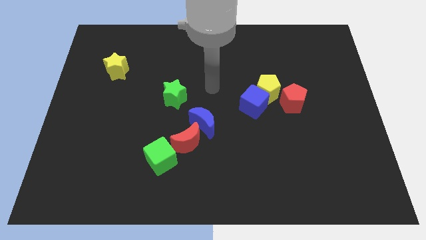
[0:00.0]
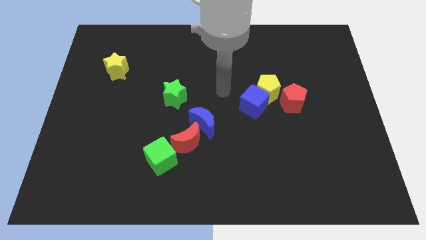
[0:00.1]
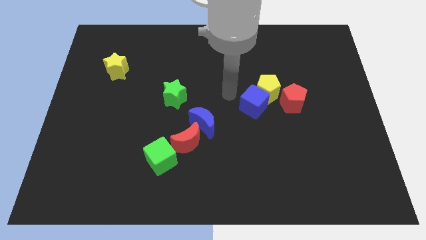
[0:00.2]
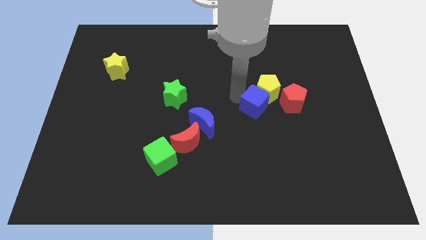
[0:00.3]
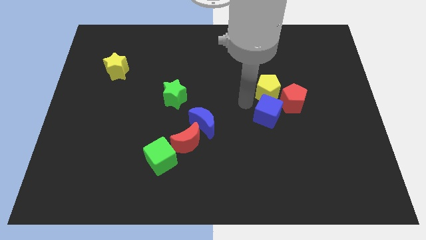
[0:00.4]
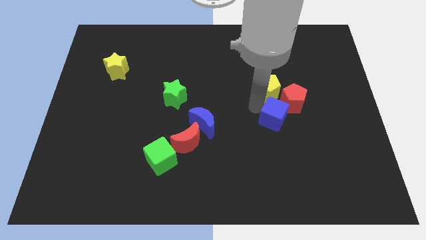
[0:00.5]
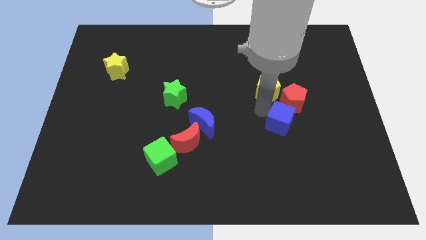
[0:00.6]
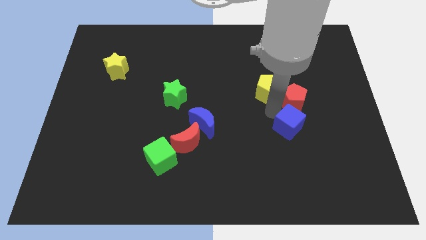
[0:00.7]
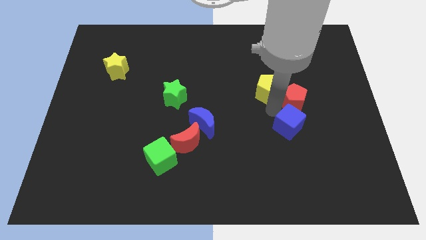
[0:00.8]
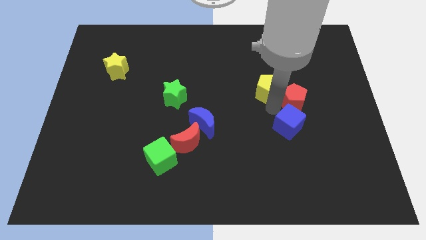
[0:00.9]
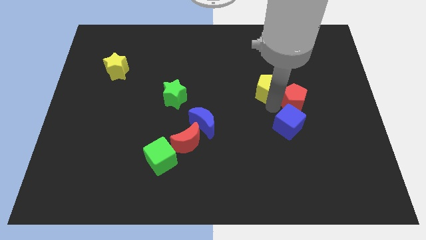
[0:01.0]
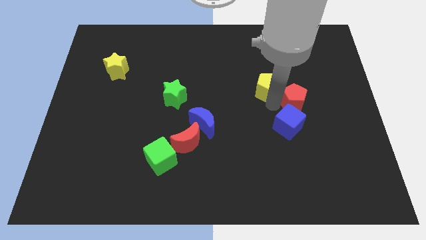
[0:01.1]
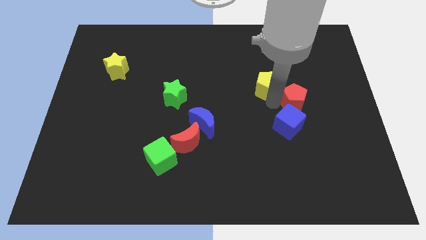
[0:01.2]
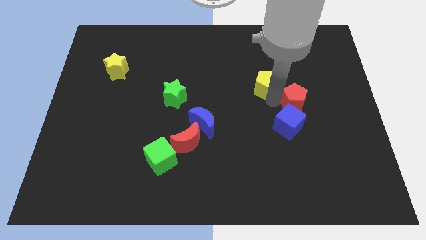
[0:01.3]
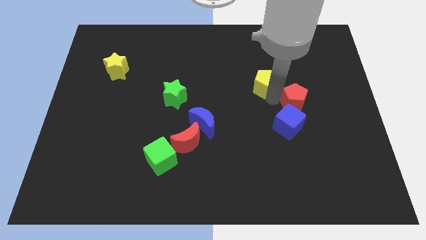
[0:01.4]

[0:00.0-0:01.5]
pull the yellow pentagon apart from the blue cube and red pentagon

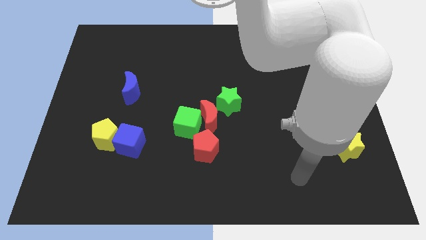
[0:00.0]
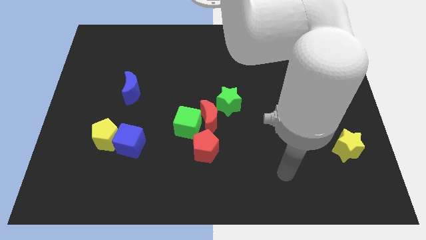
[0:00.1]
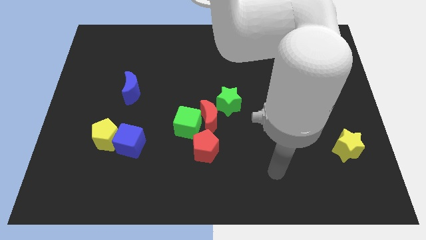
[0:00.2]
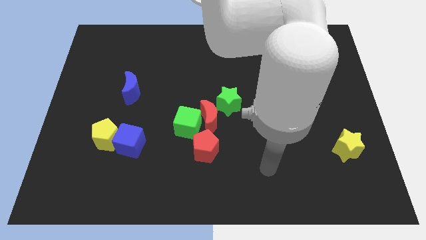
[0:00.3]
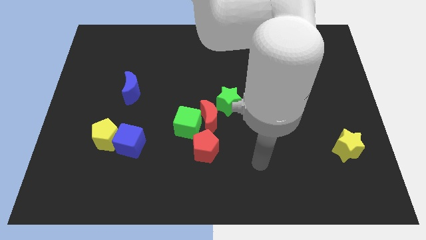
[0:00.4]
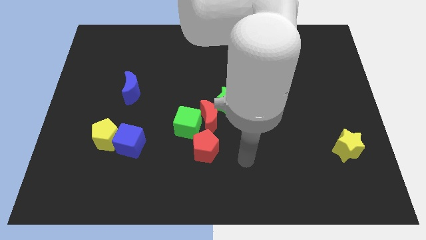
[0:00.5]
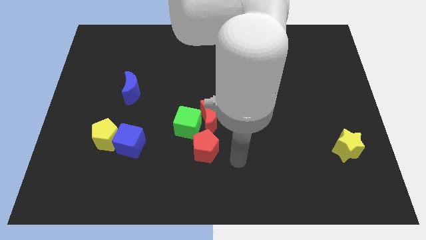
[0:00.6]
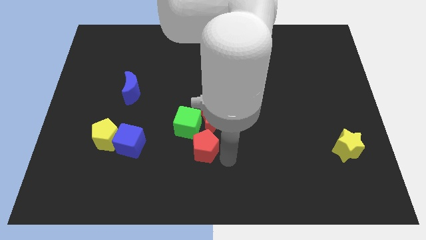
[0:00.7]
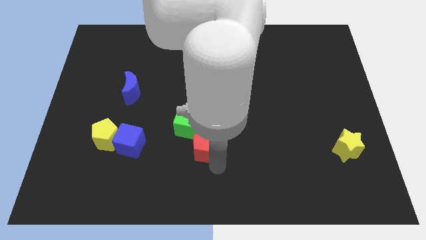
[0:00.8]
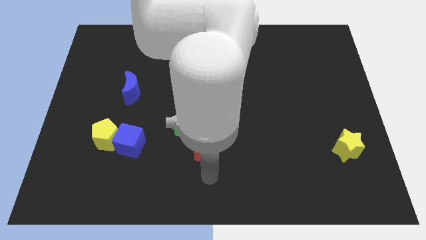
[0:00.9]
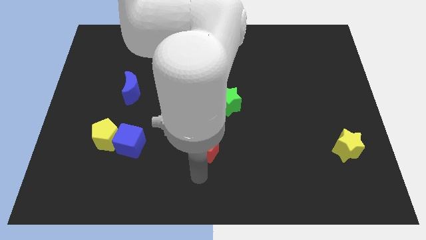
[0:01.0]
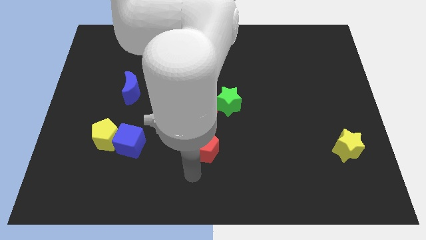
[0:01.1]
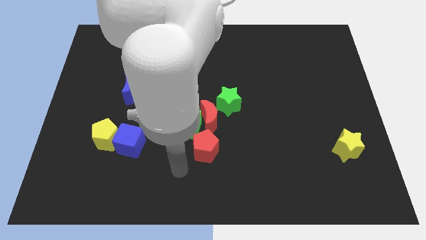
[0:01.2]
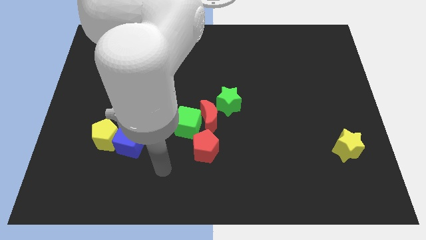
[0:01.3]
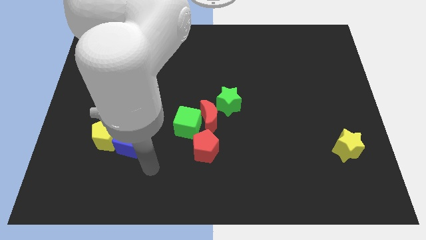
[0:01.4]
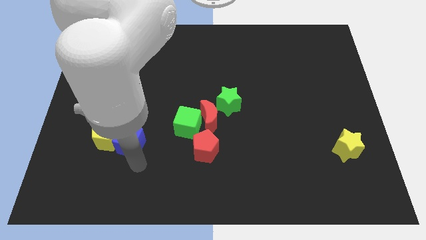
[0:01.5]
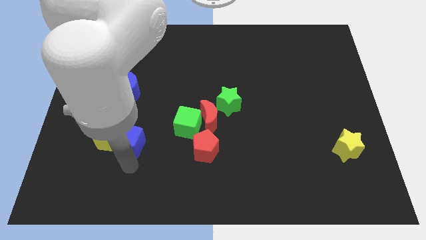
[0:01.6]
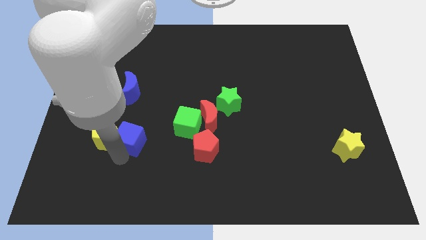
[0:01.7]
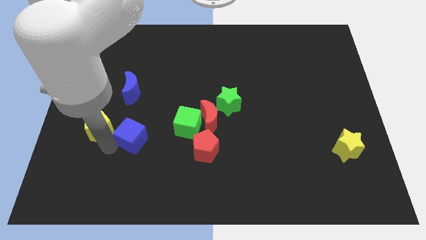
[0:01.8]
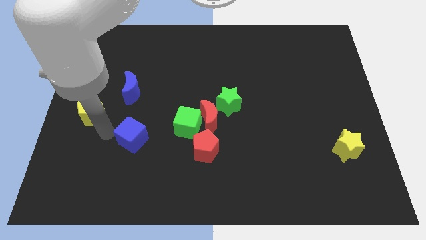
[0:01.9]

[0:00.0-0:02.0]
separate the blue cube from the yellow pentagon

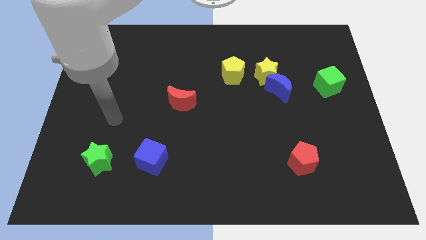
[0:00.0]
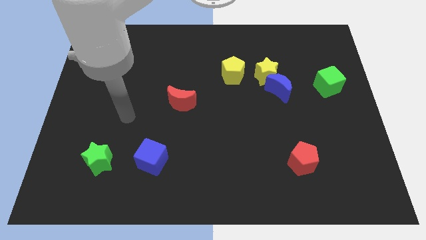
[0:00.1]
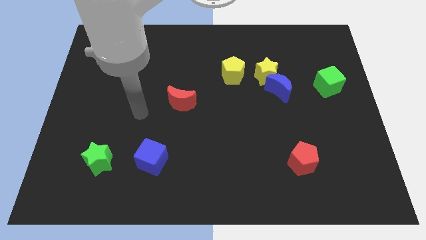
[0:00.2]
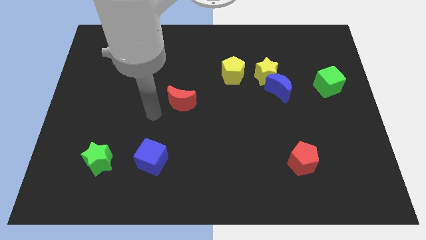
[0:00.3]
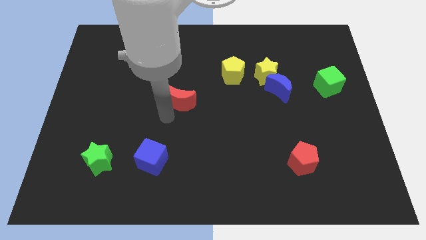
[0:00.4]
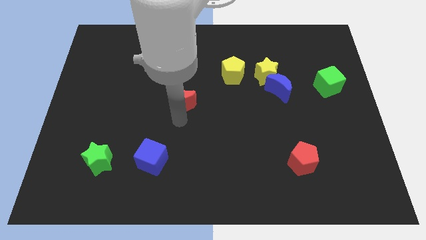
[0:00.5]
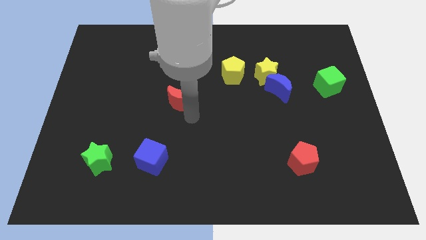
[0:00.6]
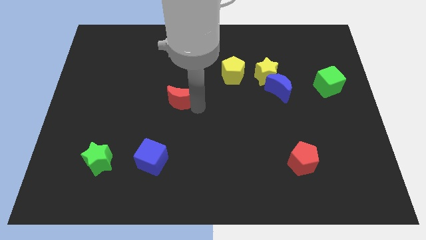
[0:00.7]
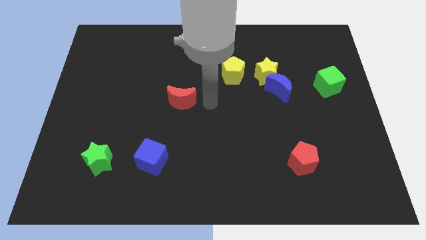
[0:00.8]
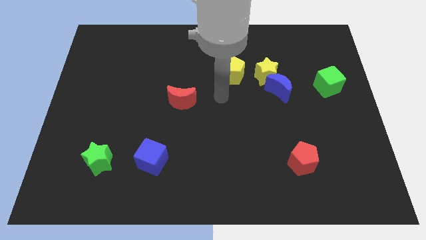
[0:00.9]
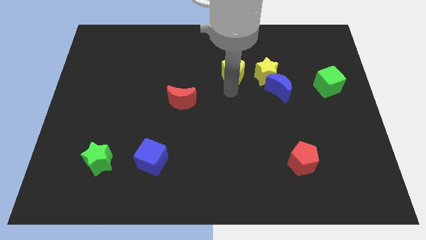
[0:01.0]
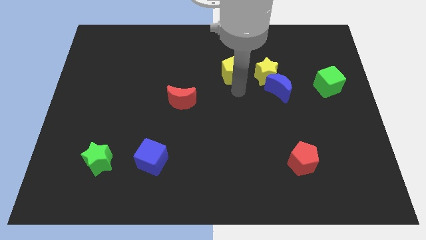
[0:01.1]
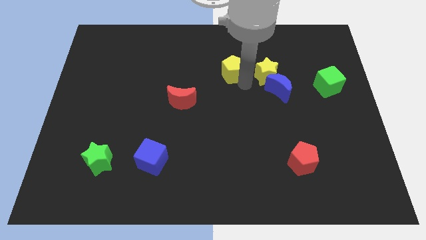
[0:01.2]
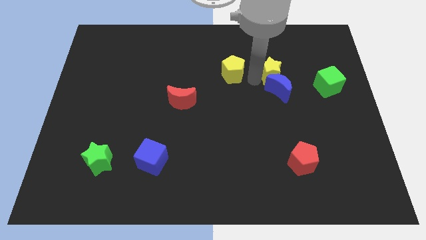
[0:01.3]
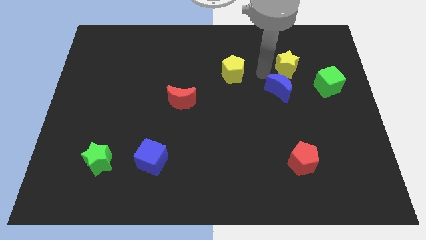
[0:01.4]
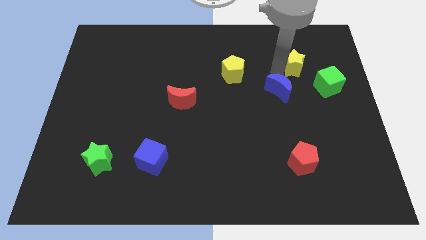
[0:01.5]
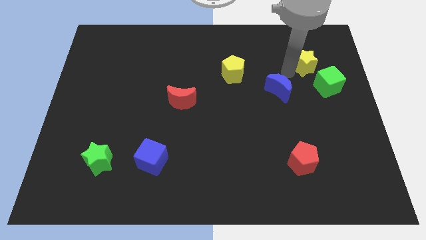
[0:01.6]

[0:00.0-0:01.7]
move the blue moon away from the yellow star

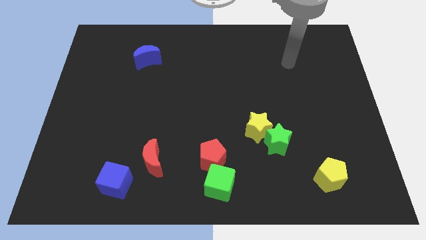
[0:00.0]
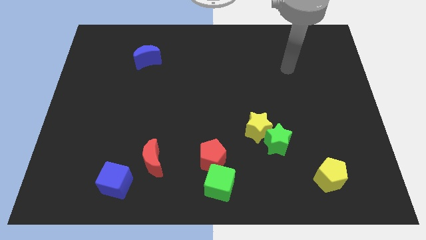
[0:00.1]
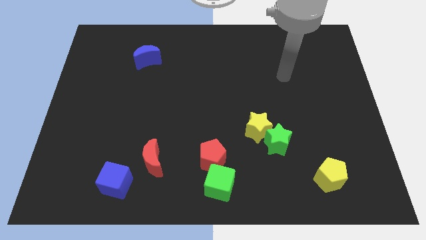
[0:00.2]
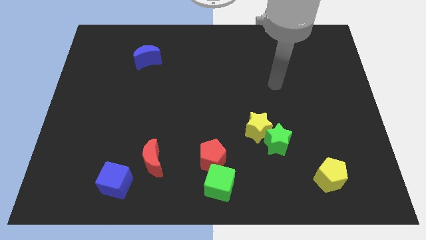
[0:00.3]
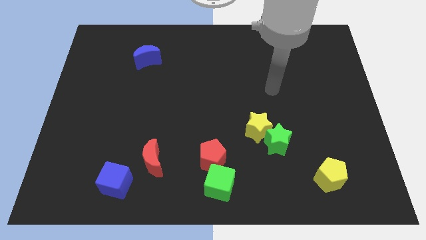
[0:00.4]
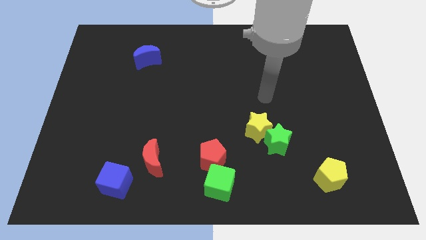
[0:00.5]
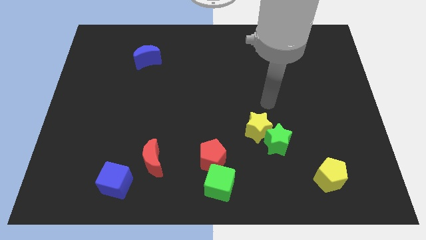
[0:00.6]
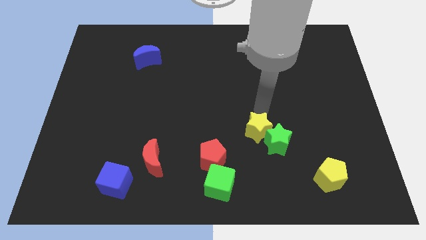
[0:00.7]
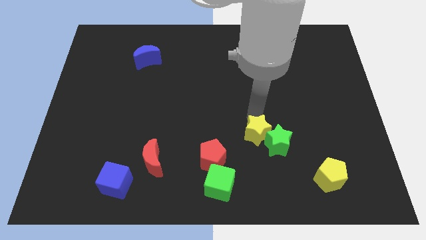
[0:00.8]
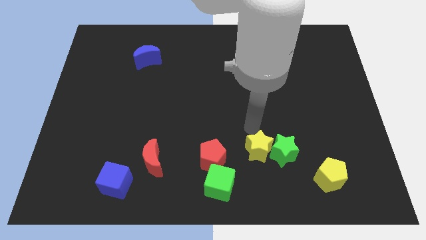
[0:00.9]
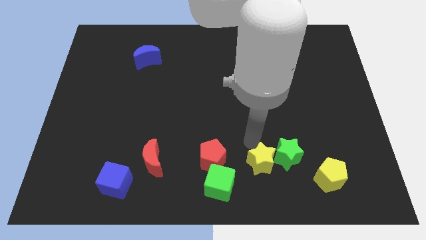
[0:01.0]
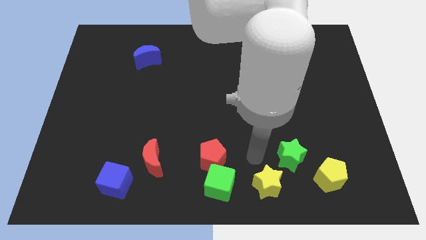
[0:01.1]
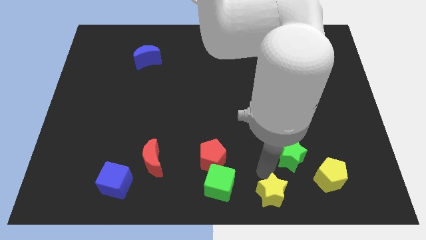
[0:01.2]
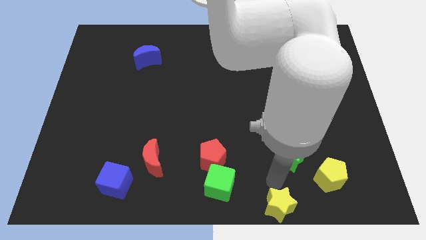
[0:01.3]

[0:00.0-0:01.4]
separate the green star from the yellow star

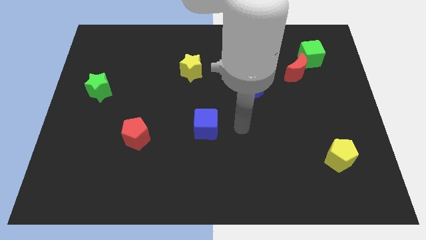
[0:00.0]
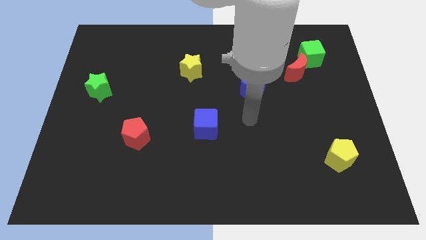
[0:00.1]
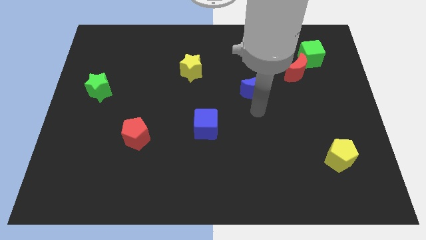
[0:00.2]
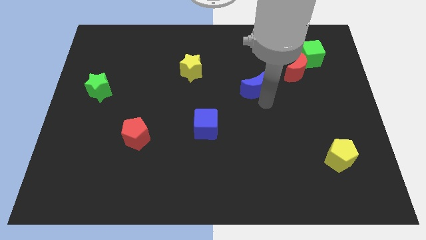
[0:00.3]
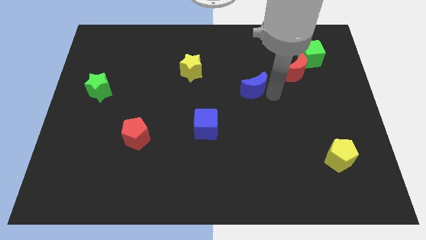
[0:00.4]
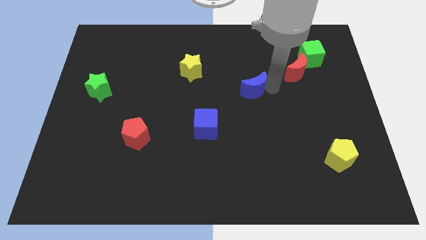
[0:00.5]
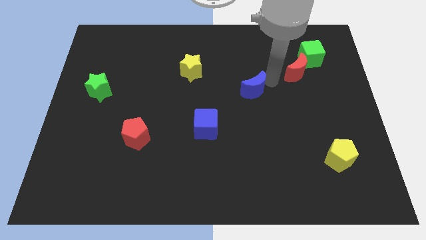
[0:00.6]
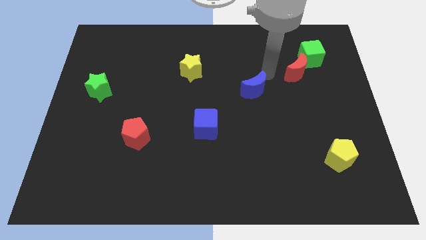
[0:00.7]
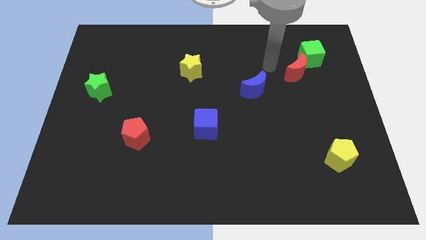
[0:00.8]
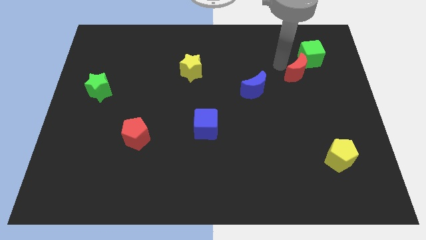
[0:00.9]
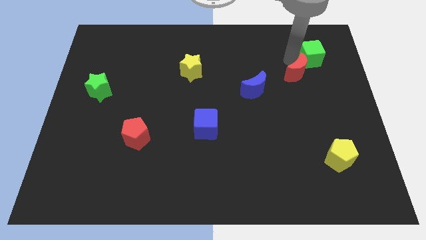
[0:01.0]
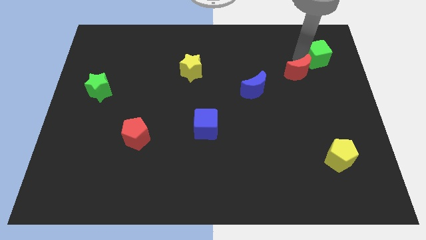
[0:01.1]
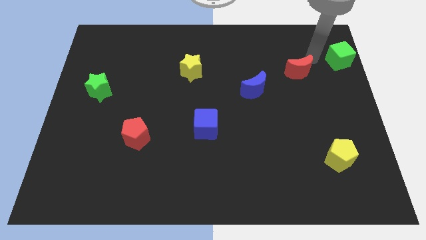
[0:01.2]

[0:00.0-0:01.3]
move the red moon away from the green cube

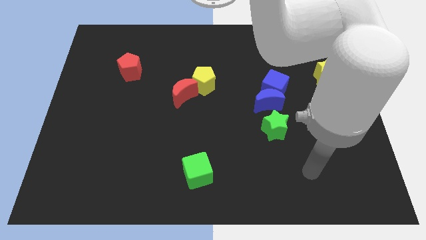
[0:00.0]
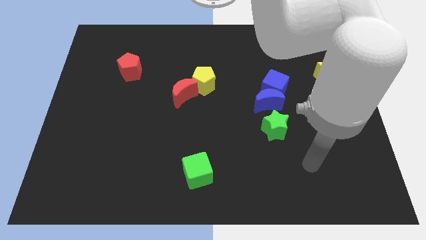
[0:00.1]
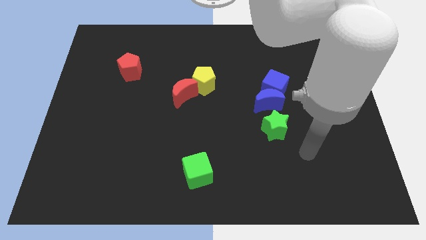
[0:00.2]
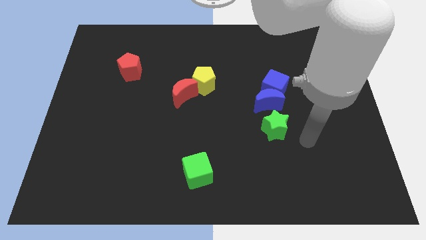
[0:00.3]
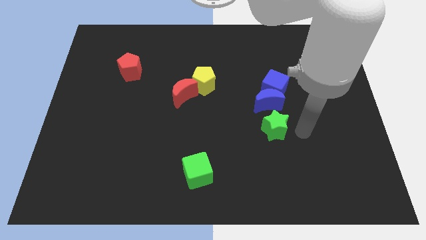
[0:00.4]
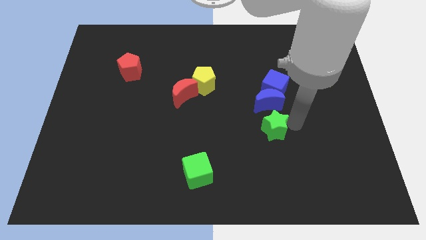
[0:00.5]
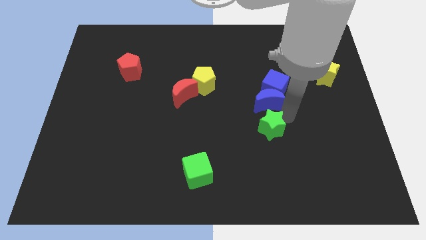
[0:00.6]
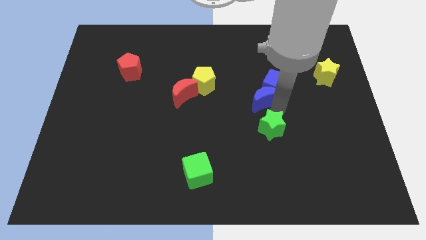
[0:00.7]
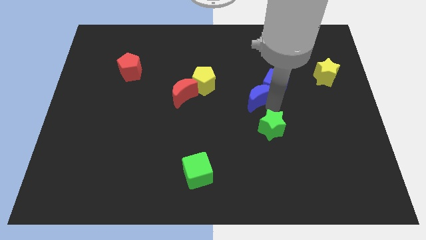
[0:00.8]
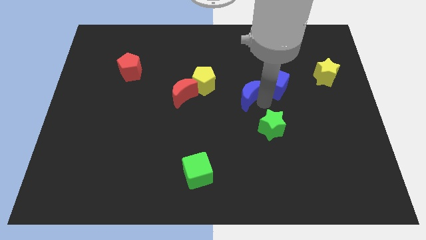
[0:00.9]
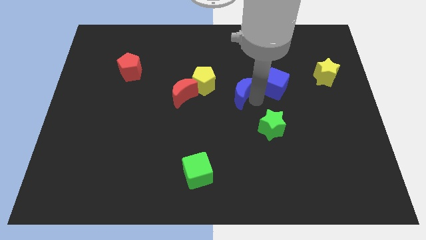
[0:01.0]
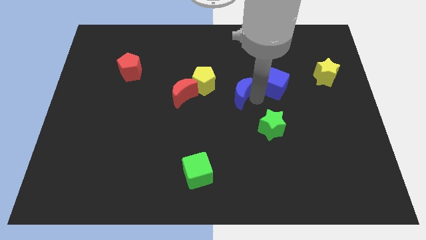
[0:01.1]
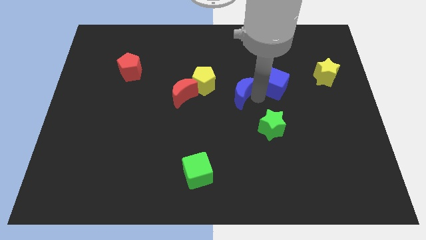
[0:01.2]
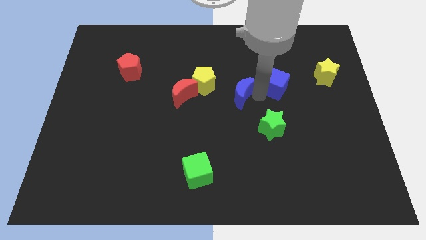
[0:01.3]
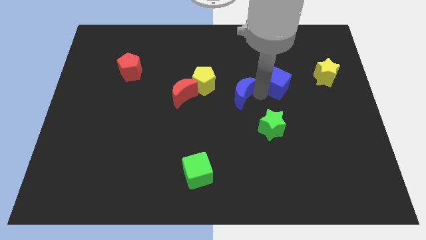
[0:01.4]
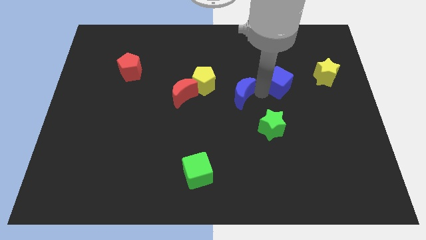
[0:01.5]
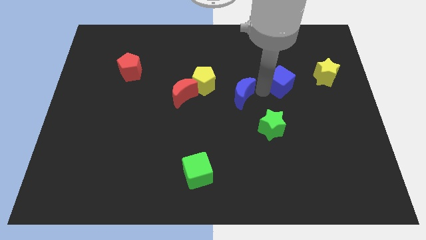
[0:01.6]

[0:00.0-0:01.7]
pull the blue cube apart from the blue moon
